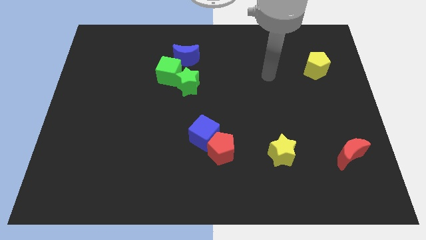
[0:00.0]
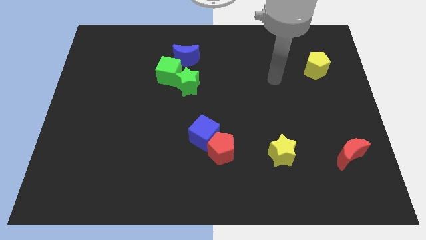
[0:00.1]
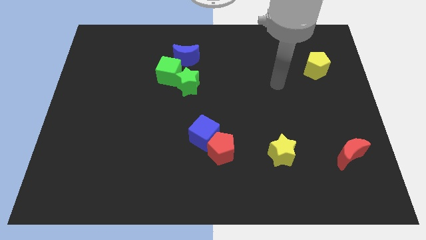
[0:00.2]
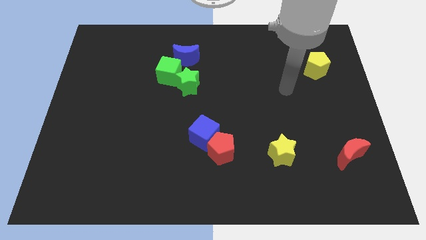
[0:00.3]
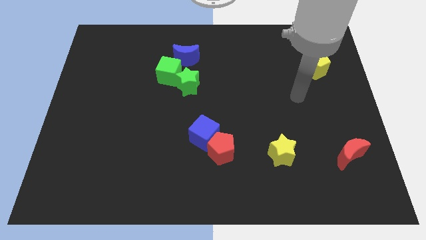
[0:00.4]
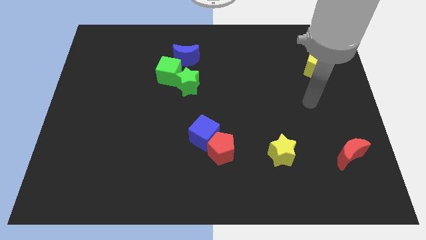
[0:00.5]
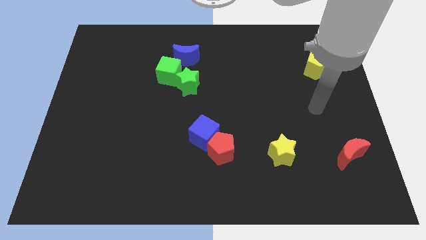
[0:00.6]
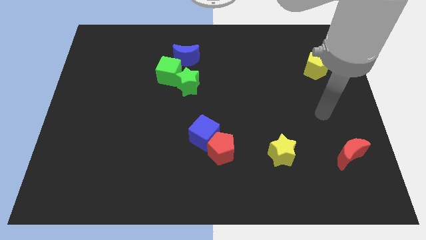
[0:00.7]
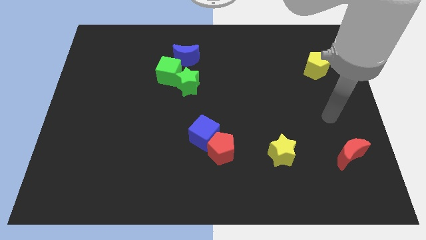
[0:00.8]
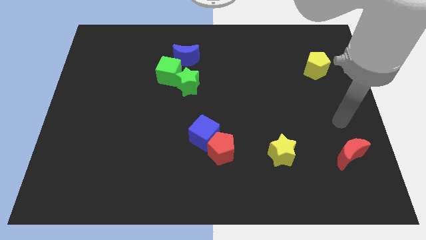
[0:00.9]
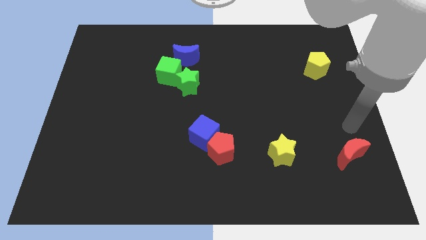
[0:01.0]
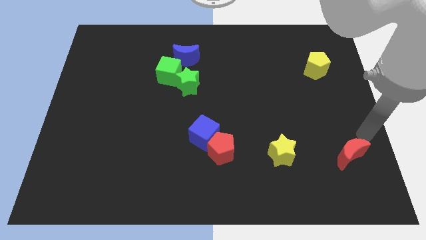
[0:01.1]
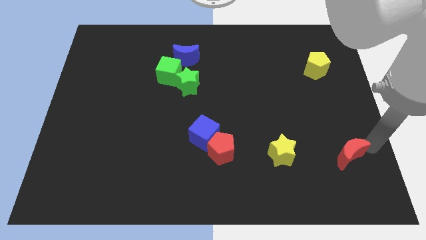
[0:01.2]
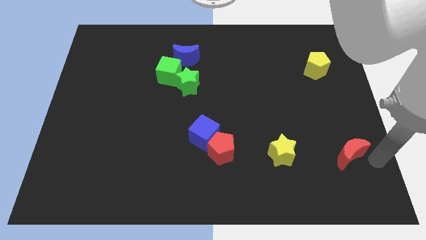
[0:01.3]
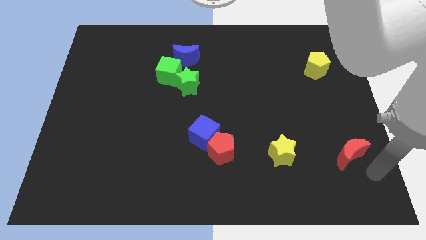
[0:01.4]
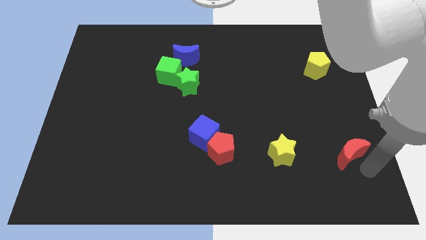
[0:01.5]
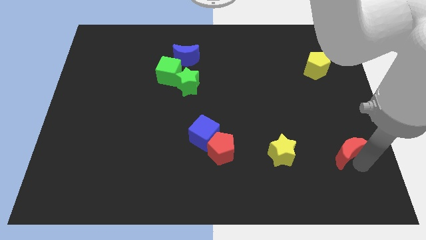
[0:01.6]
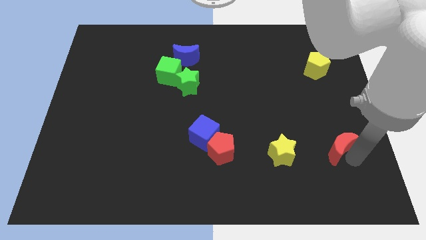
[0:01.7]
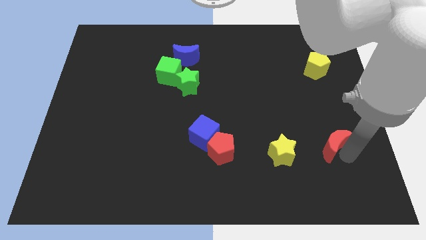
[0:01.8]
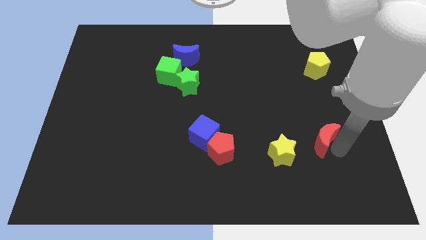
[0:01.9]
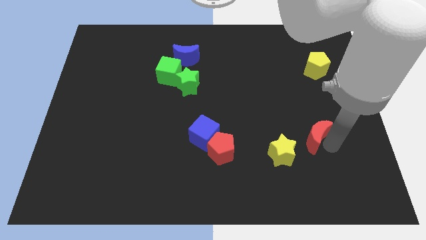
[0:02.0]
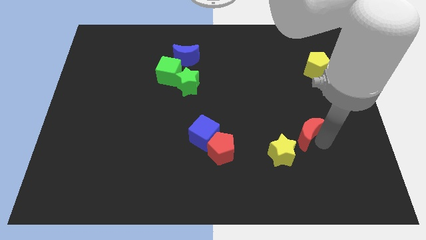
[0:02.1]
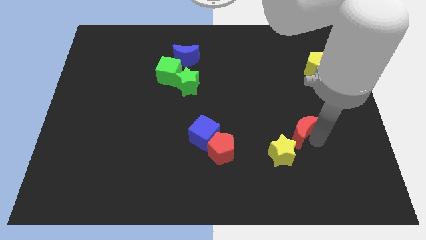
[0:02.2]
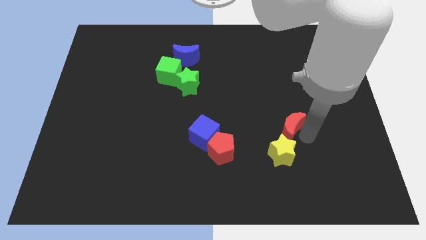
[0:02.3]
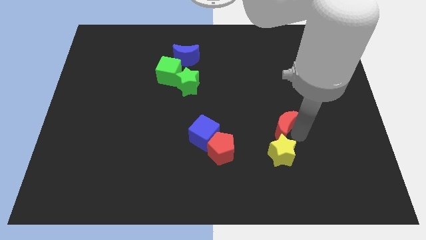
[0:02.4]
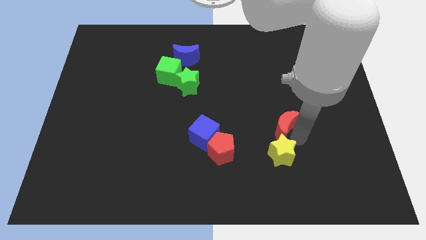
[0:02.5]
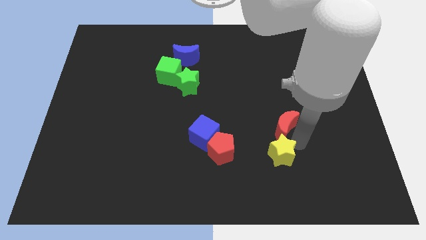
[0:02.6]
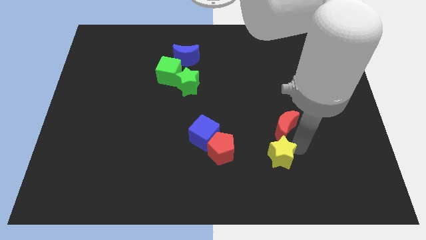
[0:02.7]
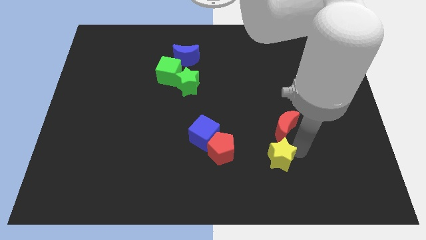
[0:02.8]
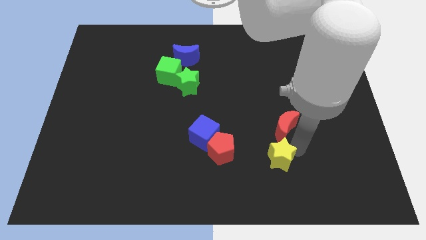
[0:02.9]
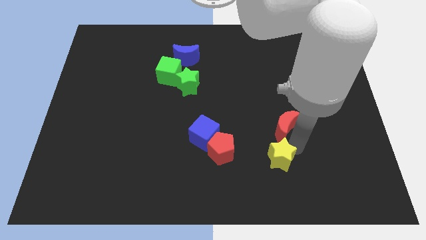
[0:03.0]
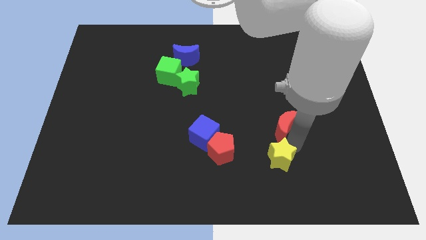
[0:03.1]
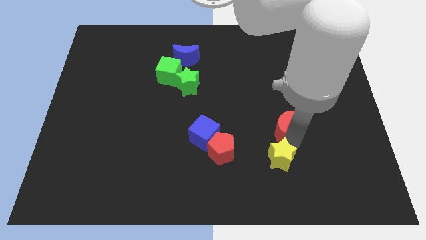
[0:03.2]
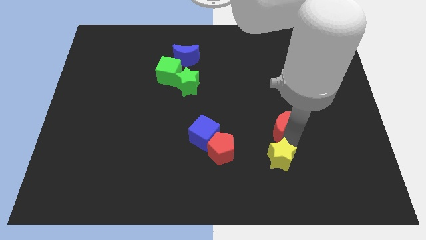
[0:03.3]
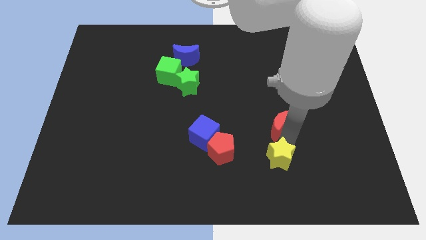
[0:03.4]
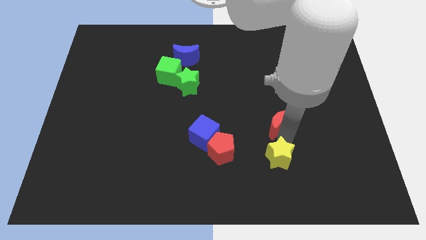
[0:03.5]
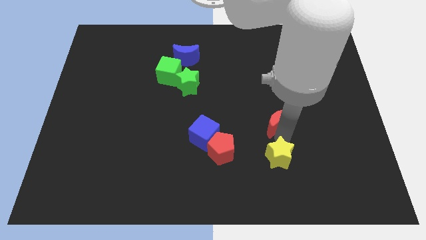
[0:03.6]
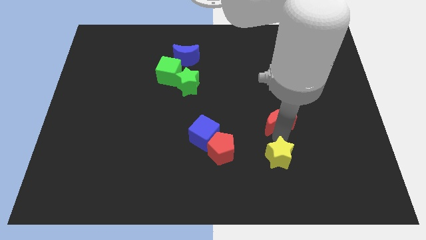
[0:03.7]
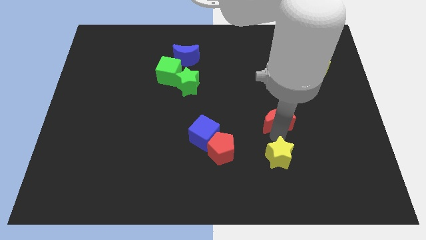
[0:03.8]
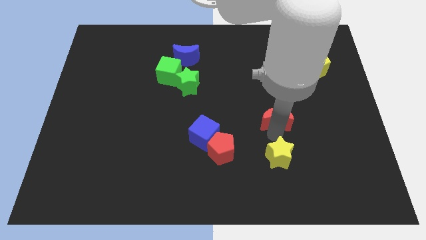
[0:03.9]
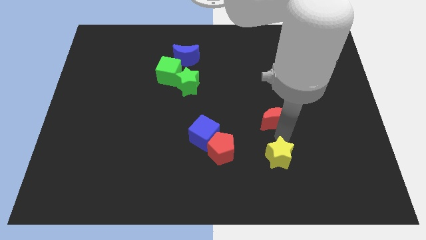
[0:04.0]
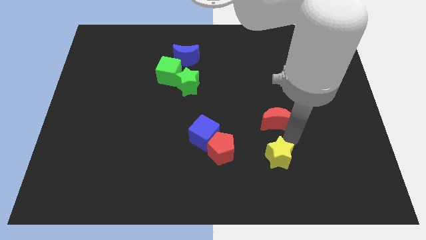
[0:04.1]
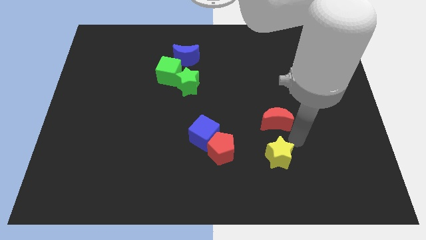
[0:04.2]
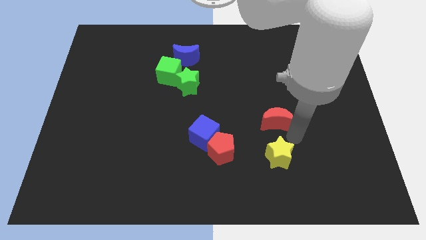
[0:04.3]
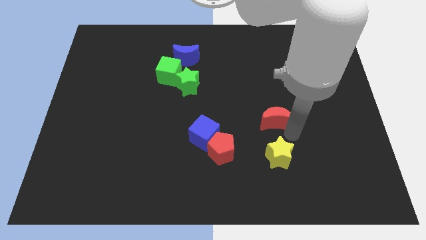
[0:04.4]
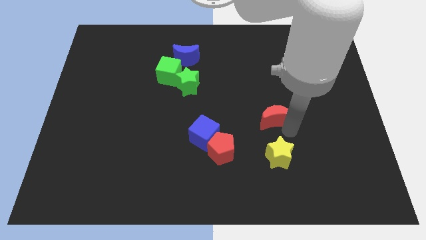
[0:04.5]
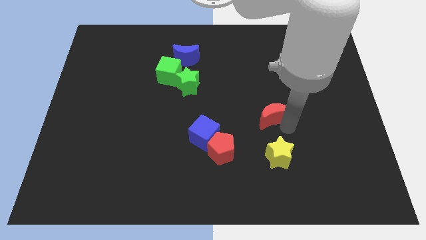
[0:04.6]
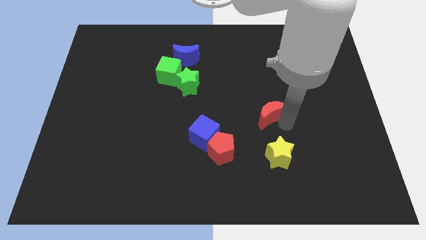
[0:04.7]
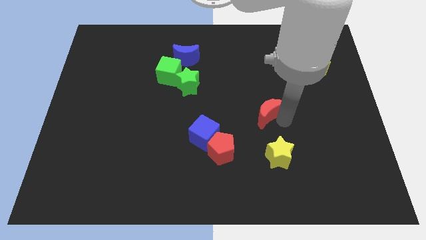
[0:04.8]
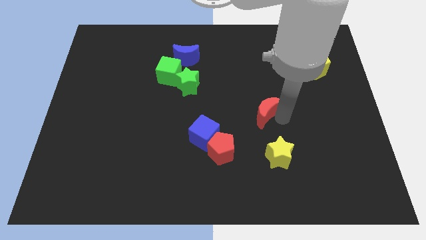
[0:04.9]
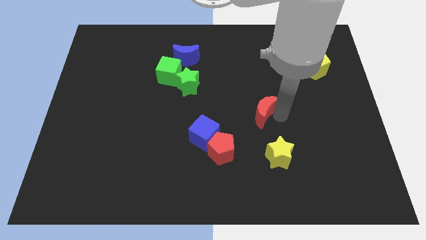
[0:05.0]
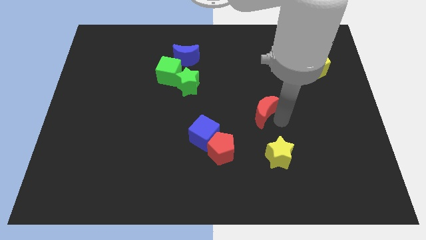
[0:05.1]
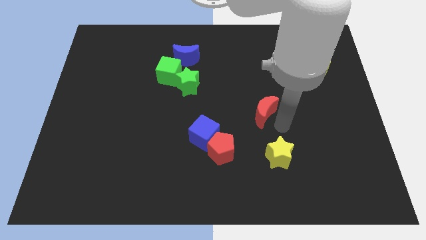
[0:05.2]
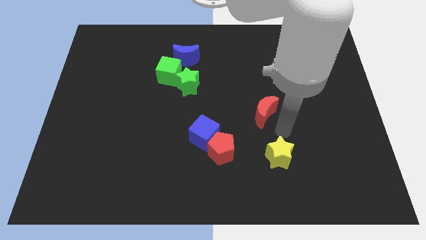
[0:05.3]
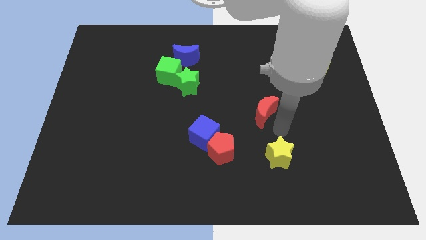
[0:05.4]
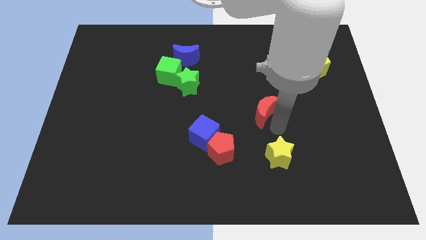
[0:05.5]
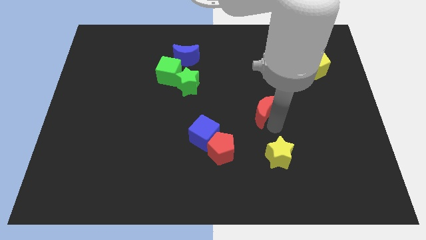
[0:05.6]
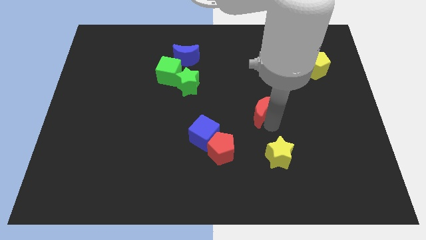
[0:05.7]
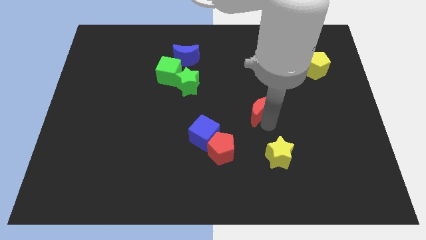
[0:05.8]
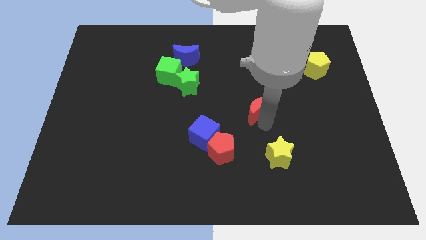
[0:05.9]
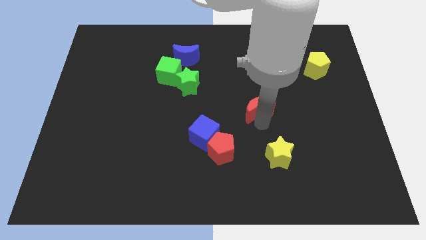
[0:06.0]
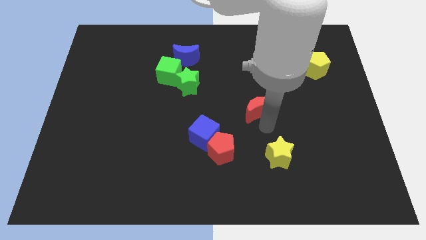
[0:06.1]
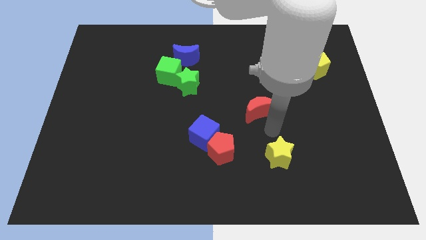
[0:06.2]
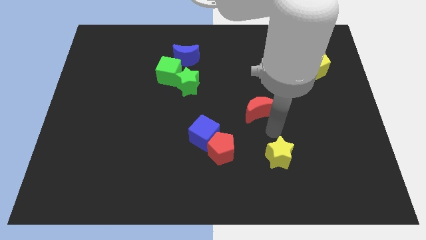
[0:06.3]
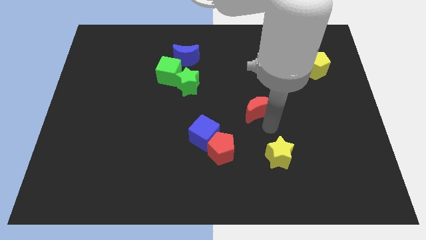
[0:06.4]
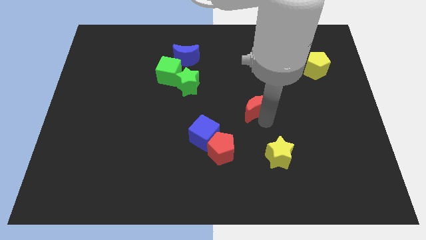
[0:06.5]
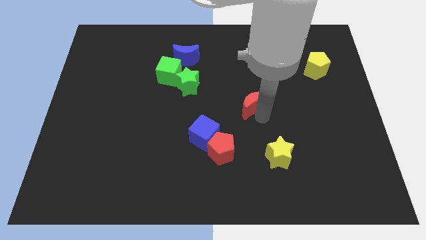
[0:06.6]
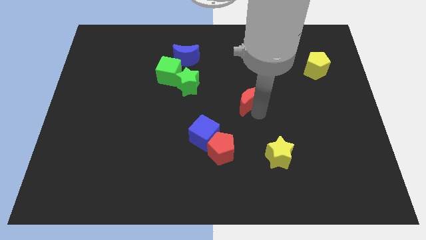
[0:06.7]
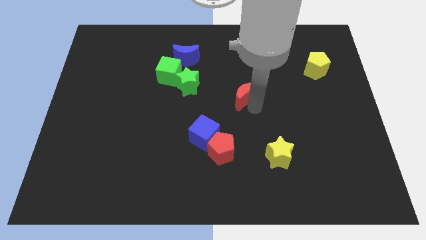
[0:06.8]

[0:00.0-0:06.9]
push the red moon to the right side of the green star

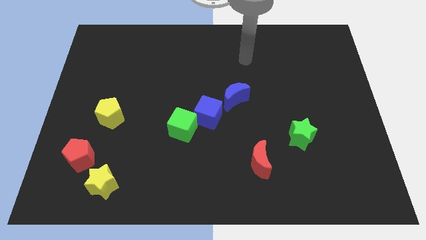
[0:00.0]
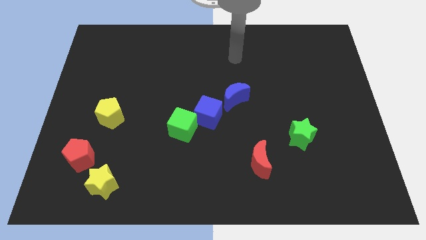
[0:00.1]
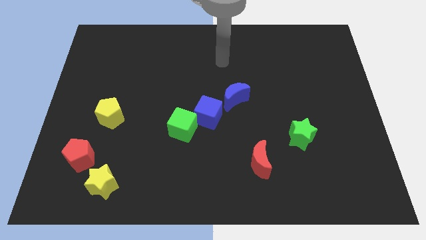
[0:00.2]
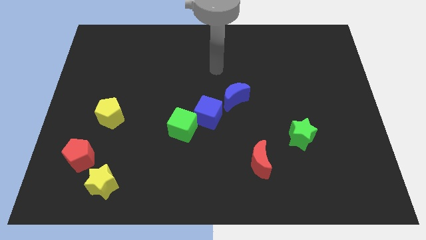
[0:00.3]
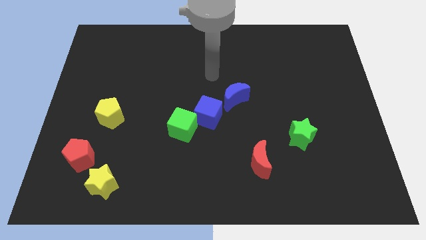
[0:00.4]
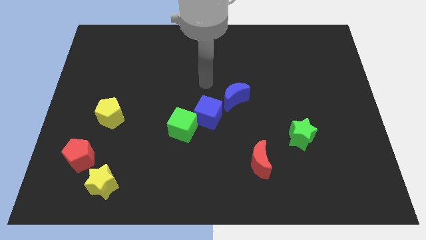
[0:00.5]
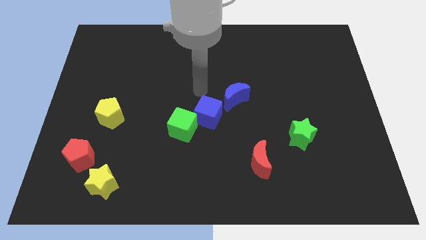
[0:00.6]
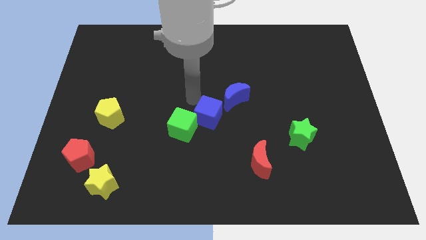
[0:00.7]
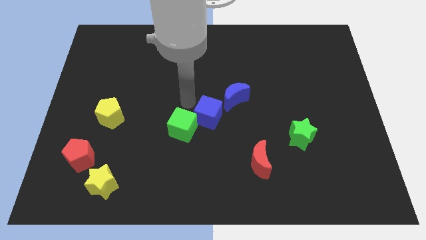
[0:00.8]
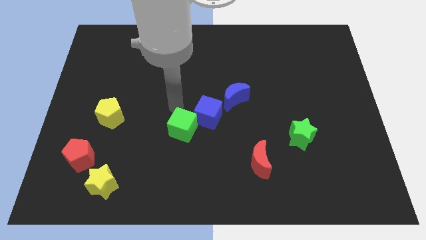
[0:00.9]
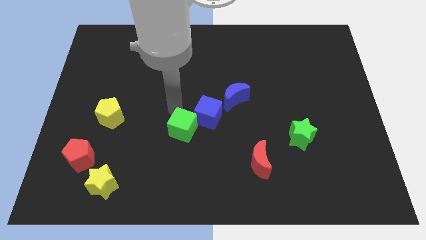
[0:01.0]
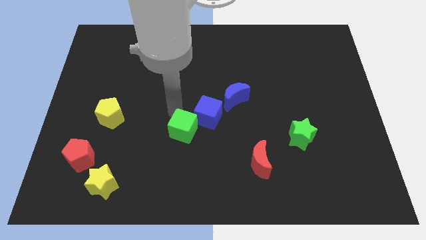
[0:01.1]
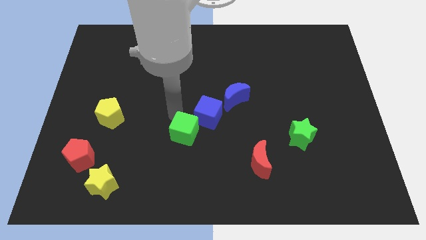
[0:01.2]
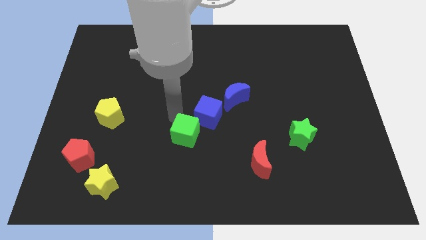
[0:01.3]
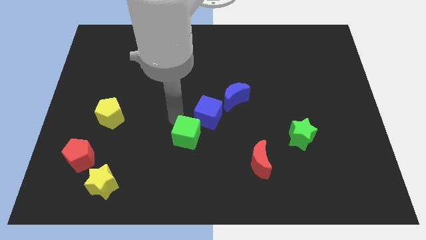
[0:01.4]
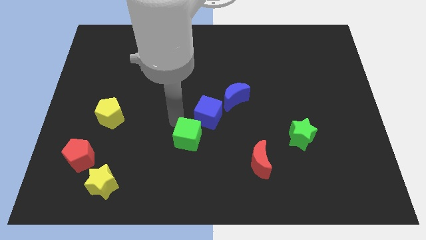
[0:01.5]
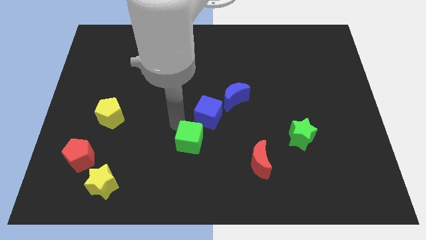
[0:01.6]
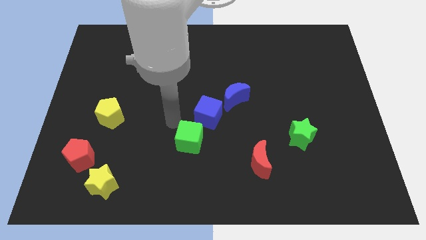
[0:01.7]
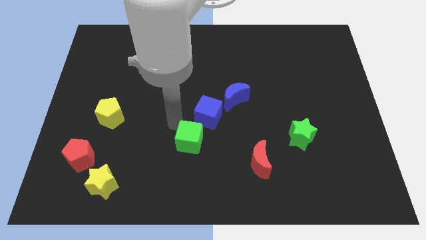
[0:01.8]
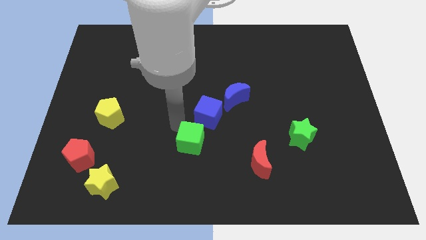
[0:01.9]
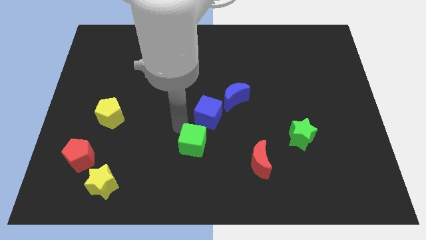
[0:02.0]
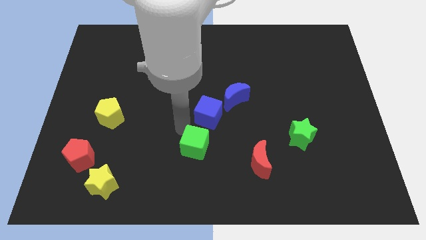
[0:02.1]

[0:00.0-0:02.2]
slide the green cube to the left side of the red moon
